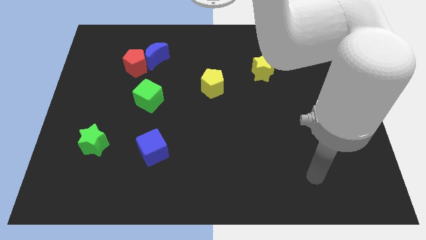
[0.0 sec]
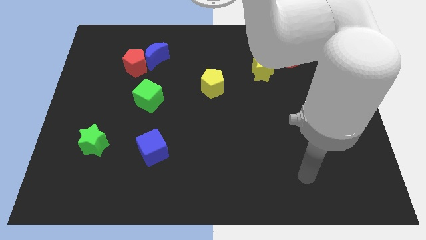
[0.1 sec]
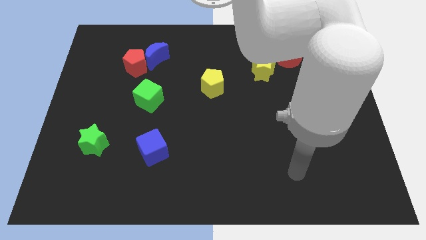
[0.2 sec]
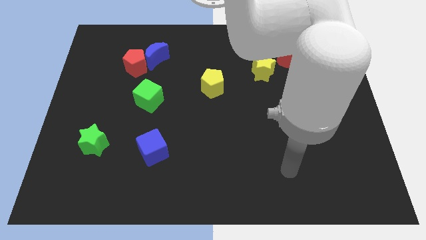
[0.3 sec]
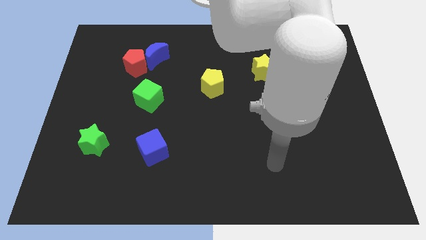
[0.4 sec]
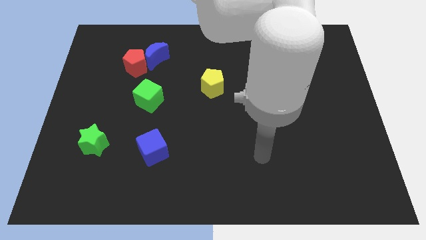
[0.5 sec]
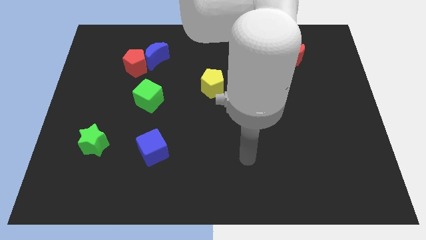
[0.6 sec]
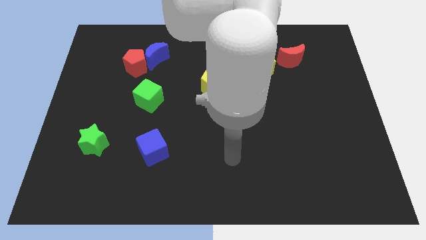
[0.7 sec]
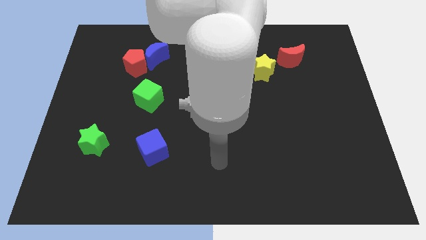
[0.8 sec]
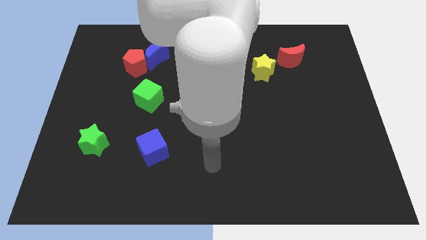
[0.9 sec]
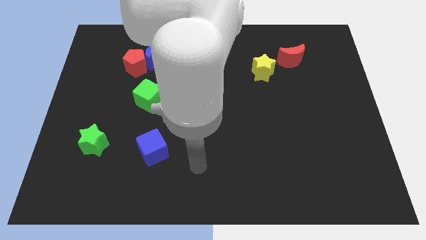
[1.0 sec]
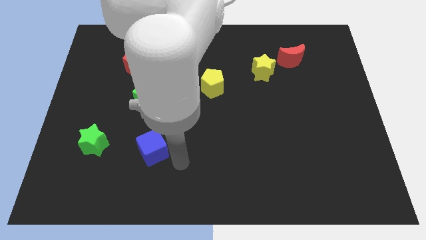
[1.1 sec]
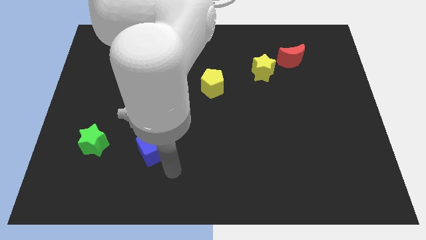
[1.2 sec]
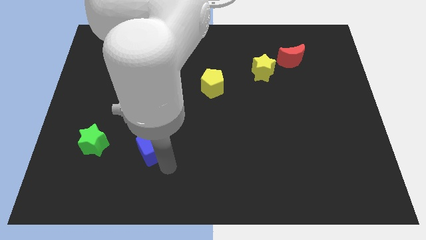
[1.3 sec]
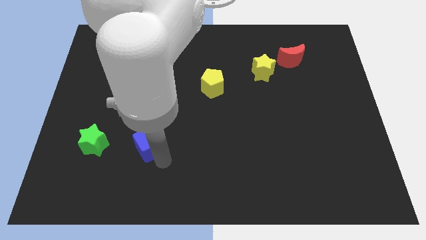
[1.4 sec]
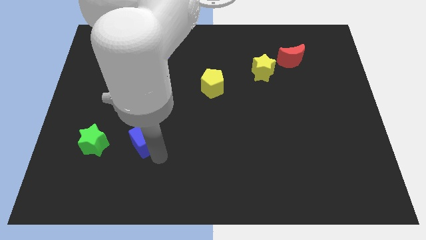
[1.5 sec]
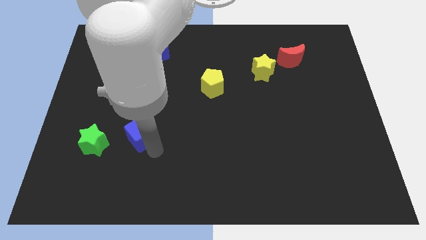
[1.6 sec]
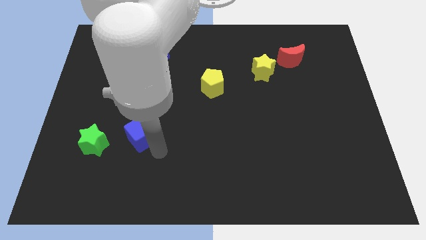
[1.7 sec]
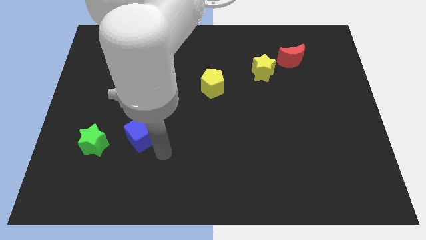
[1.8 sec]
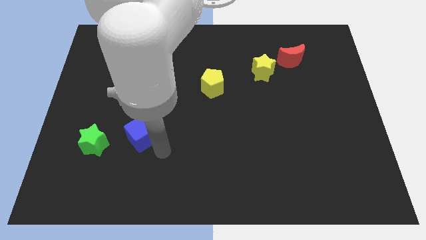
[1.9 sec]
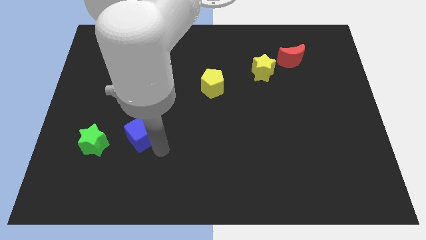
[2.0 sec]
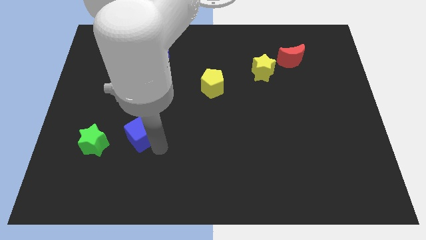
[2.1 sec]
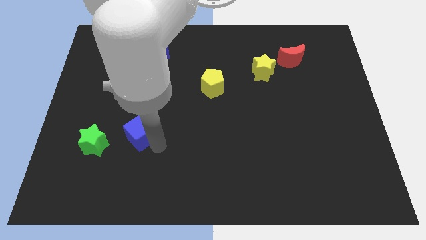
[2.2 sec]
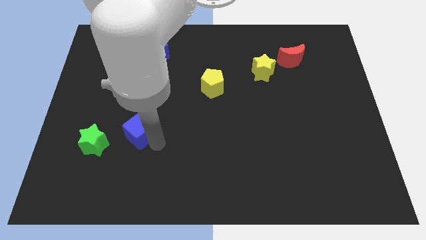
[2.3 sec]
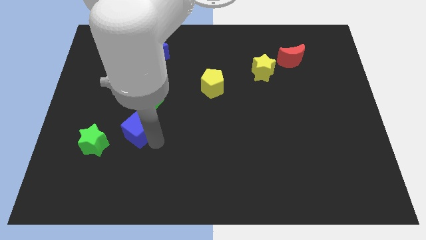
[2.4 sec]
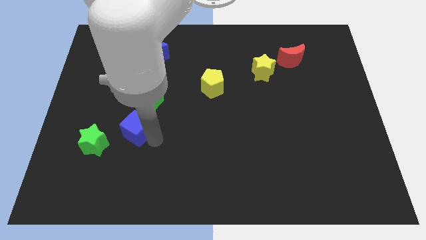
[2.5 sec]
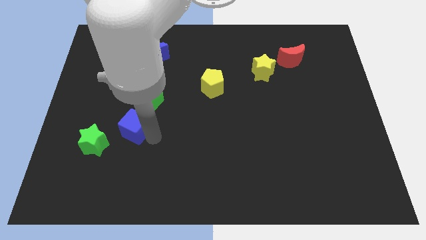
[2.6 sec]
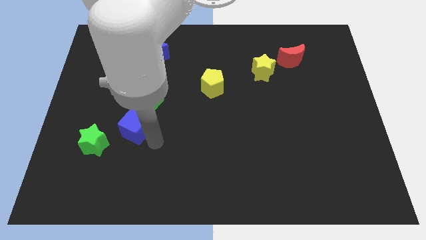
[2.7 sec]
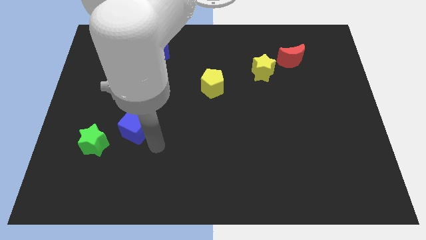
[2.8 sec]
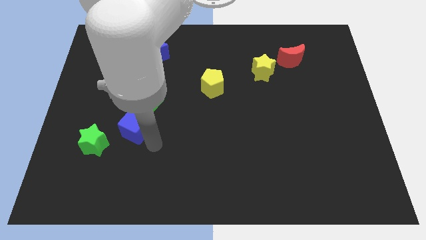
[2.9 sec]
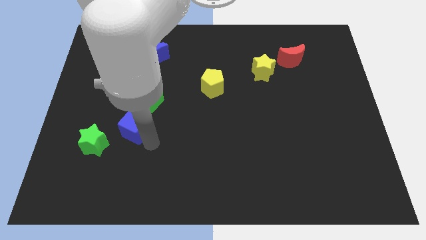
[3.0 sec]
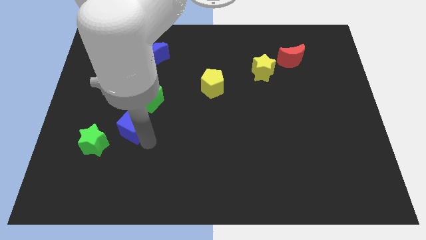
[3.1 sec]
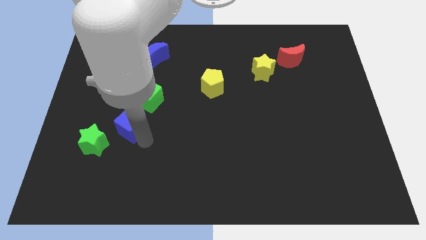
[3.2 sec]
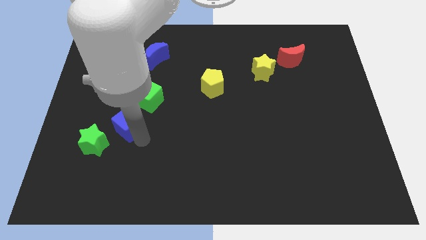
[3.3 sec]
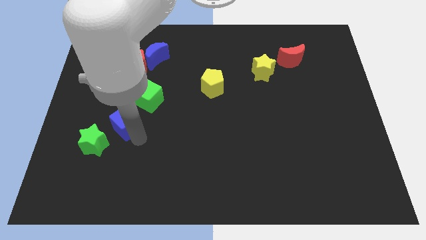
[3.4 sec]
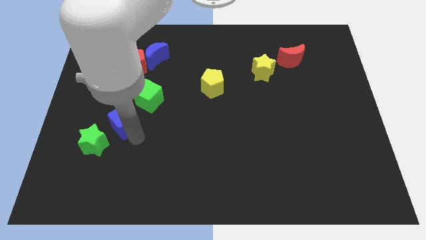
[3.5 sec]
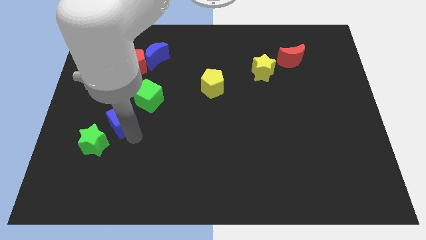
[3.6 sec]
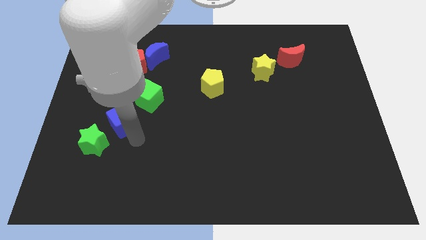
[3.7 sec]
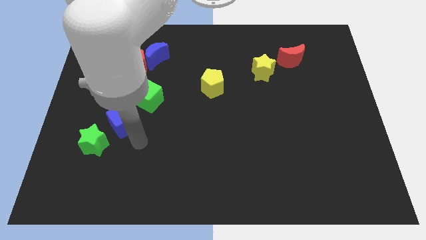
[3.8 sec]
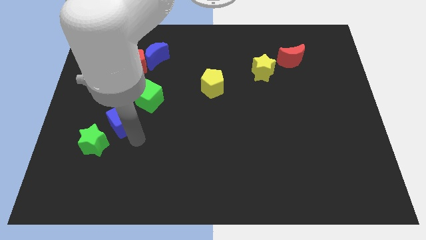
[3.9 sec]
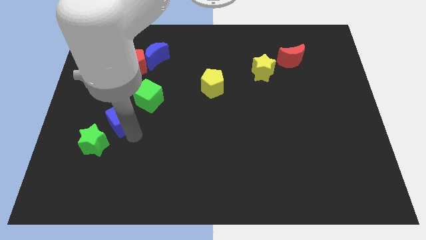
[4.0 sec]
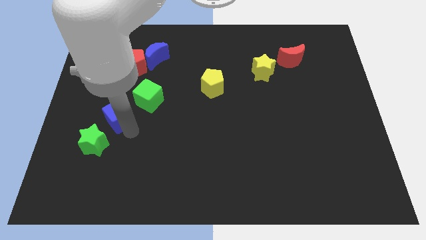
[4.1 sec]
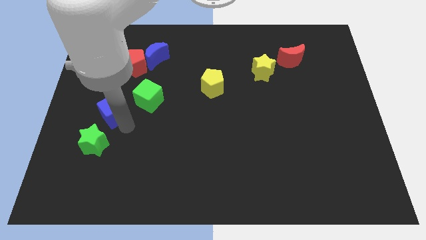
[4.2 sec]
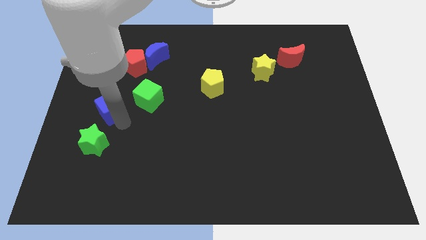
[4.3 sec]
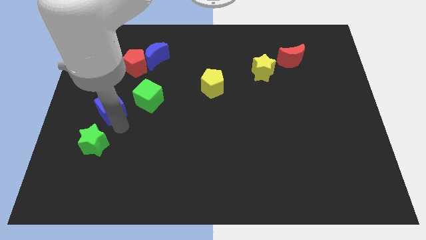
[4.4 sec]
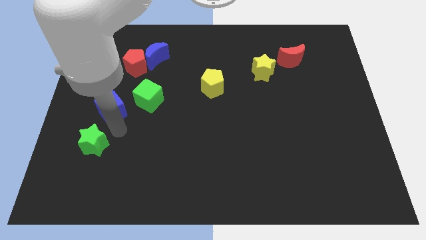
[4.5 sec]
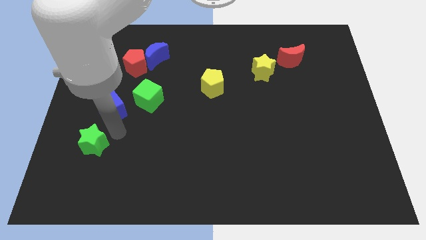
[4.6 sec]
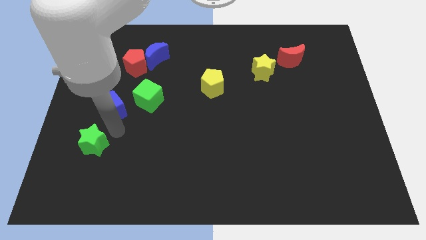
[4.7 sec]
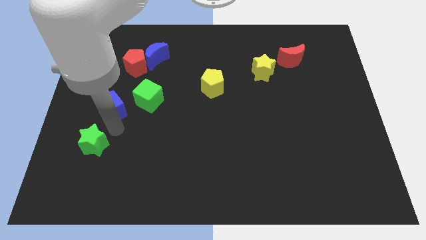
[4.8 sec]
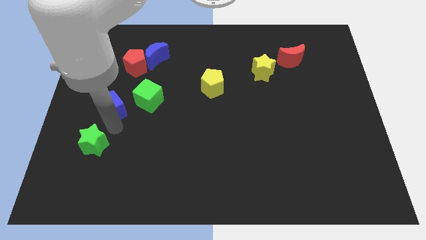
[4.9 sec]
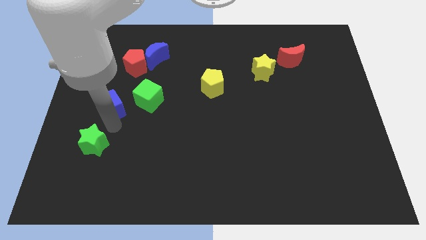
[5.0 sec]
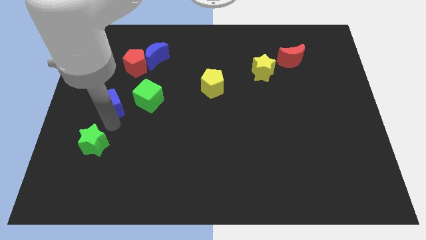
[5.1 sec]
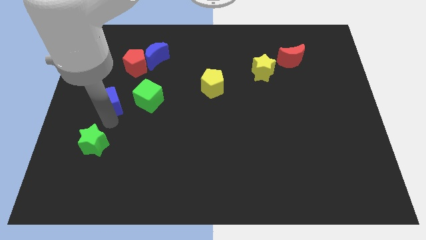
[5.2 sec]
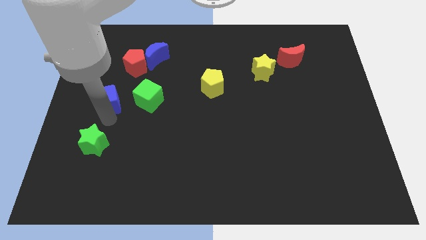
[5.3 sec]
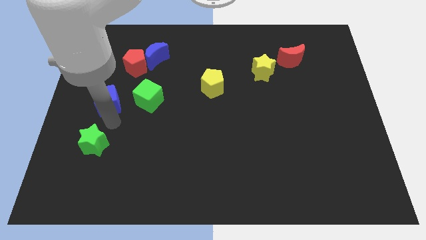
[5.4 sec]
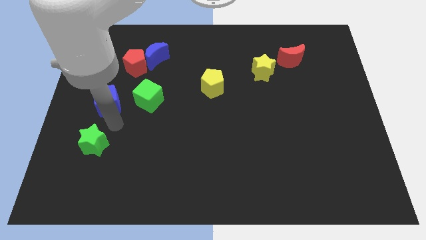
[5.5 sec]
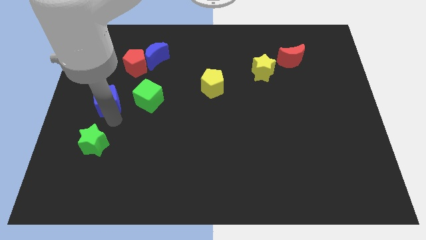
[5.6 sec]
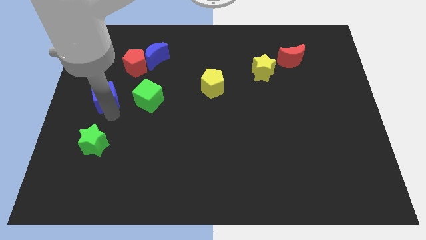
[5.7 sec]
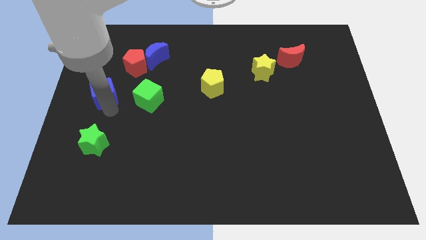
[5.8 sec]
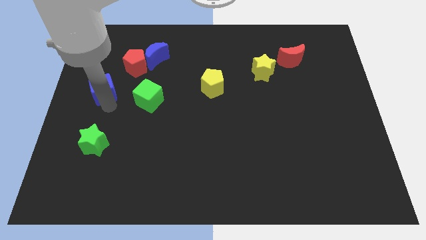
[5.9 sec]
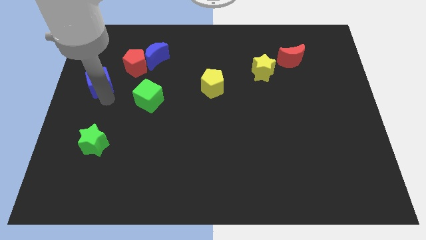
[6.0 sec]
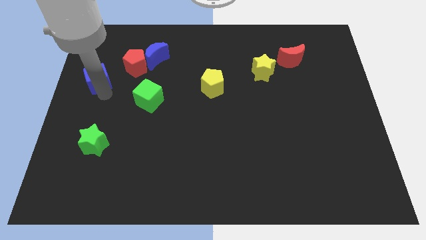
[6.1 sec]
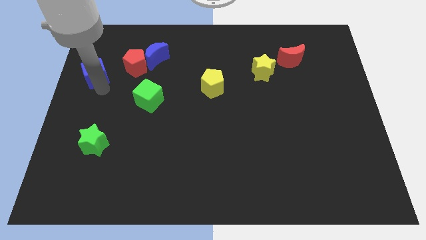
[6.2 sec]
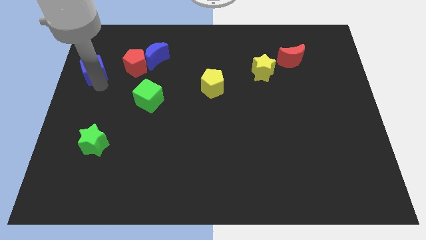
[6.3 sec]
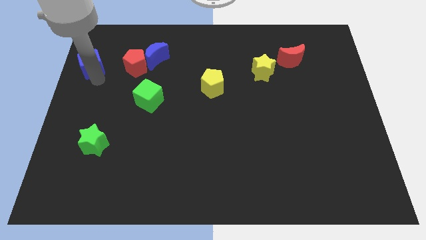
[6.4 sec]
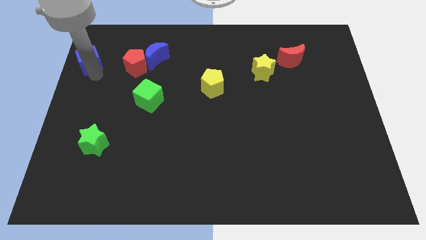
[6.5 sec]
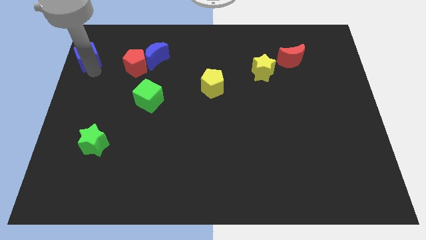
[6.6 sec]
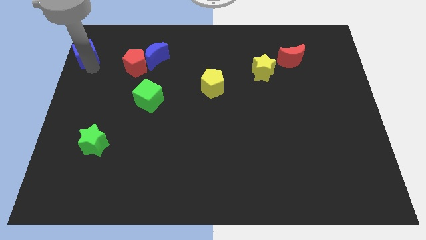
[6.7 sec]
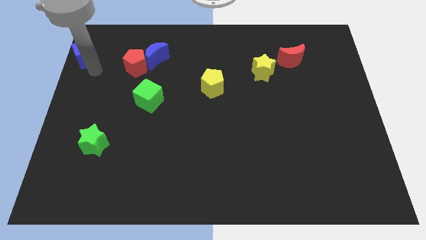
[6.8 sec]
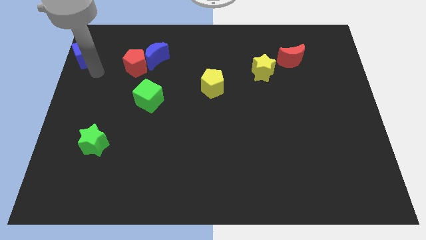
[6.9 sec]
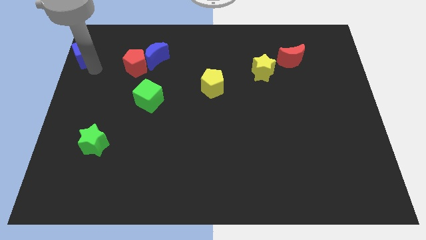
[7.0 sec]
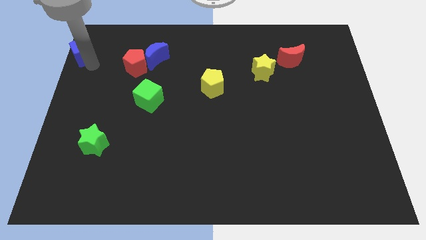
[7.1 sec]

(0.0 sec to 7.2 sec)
push the blue cube to the top left corner
